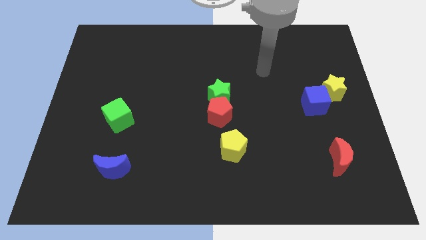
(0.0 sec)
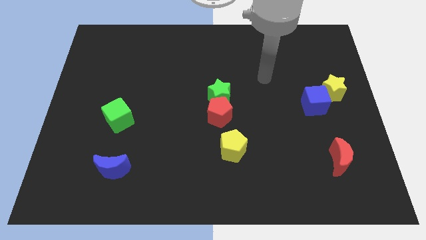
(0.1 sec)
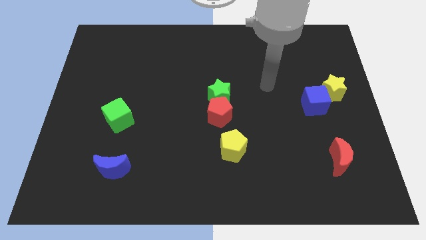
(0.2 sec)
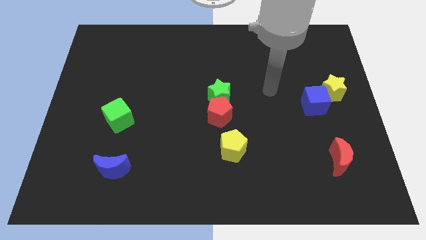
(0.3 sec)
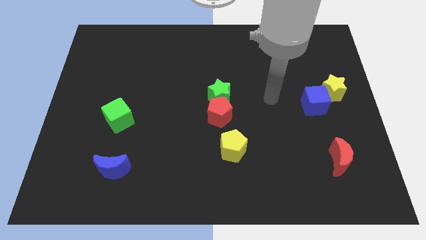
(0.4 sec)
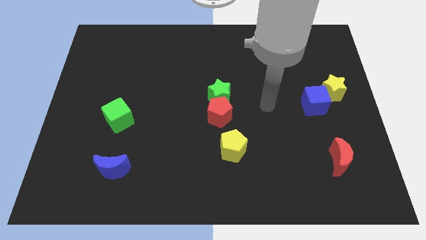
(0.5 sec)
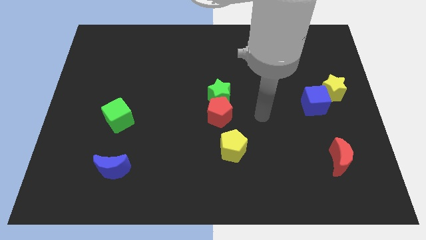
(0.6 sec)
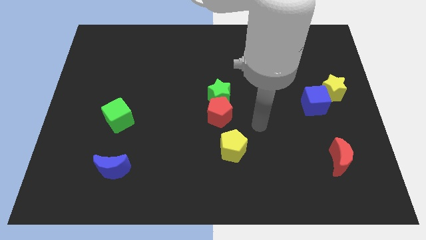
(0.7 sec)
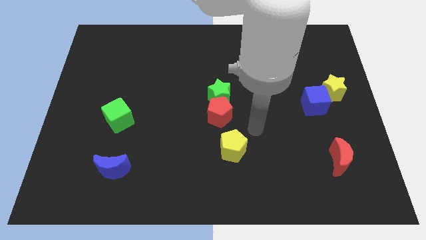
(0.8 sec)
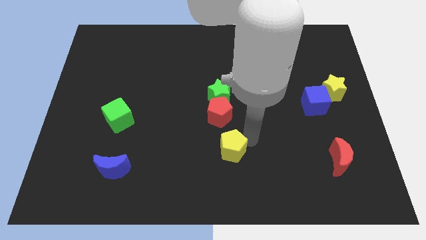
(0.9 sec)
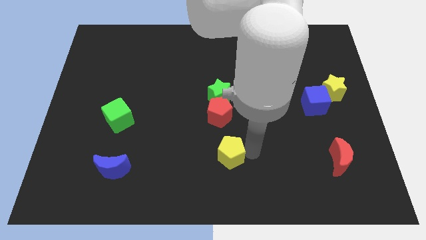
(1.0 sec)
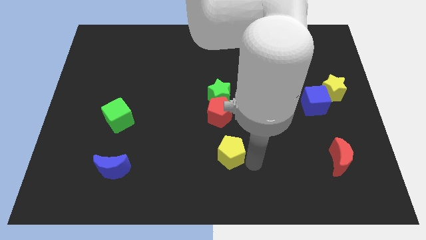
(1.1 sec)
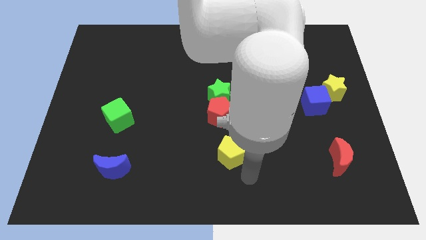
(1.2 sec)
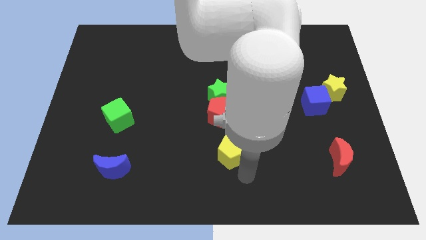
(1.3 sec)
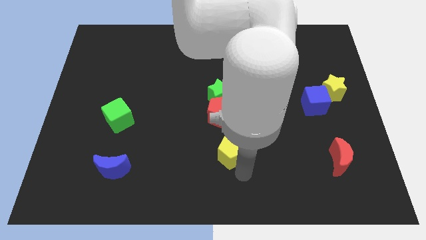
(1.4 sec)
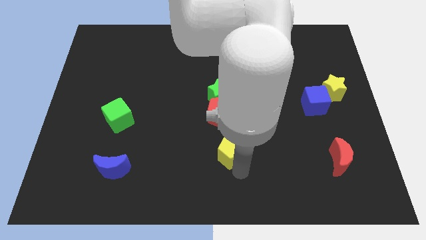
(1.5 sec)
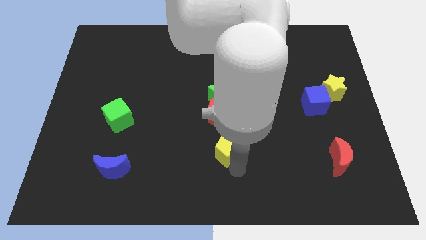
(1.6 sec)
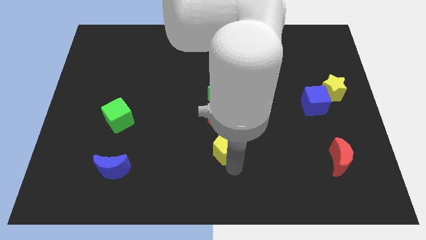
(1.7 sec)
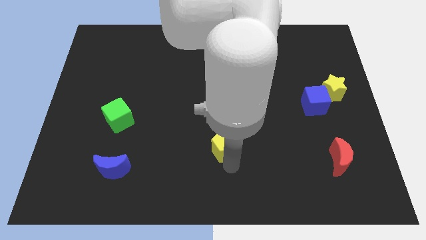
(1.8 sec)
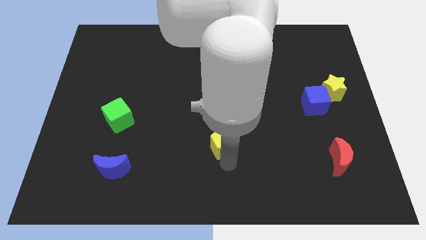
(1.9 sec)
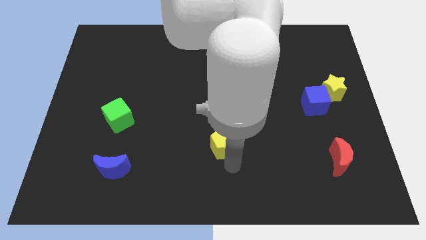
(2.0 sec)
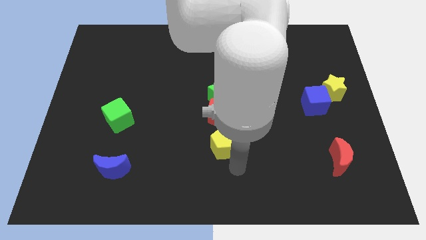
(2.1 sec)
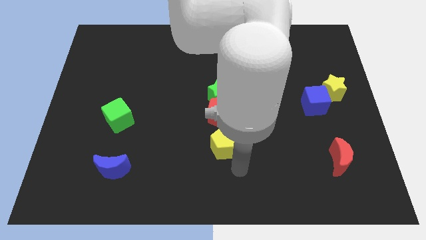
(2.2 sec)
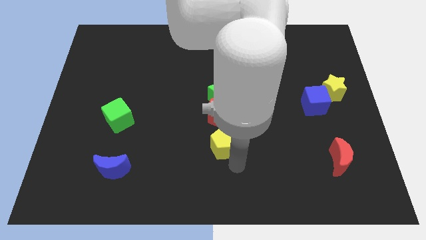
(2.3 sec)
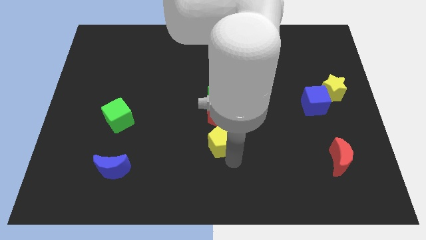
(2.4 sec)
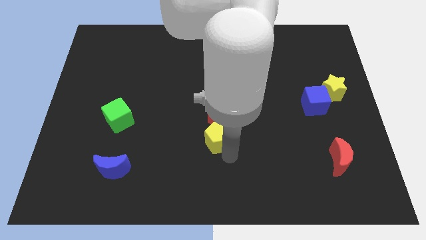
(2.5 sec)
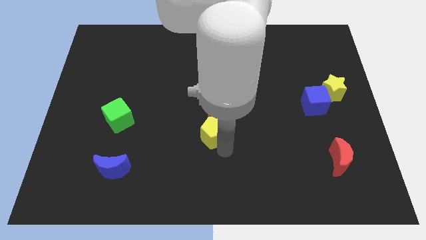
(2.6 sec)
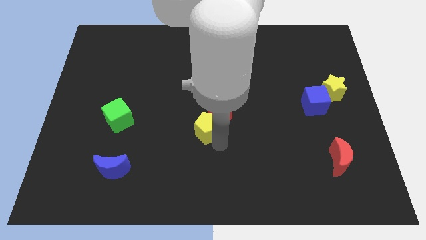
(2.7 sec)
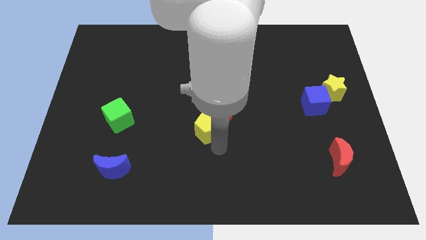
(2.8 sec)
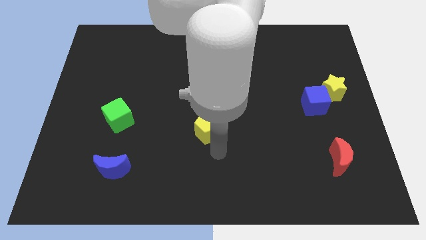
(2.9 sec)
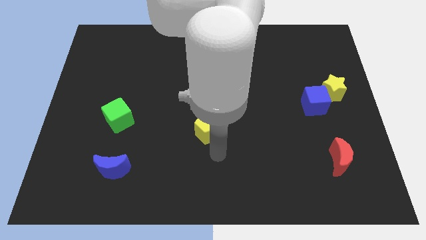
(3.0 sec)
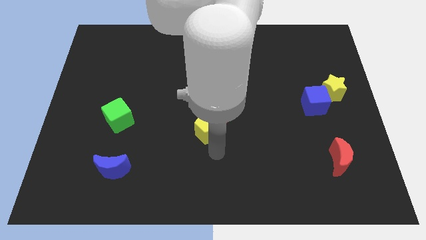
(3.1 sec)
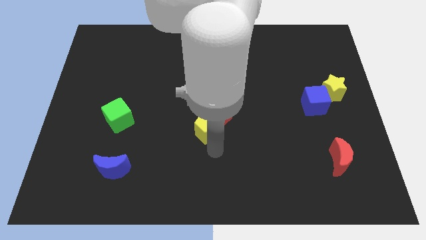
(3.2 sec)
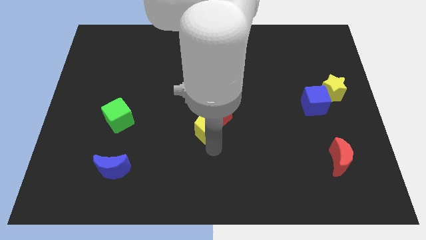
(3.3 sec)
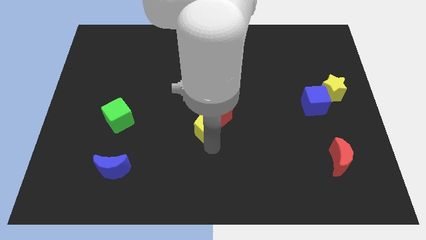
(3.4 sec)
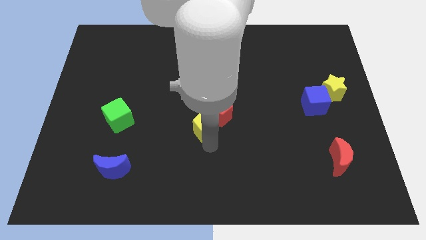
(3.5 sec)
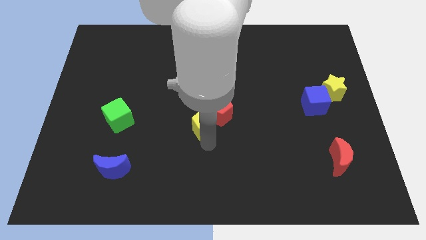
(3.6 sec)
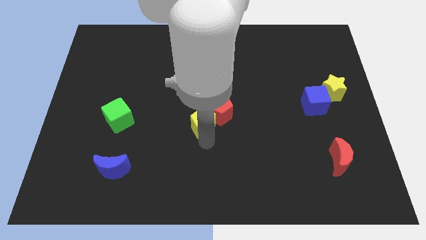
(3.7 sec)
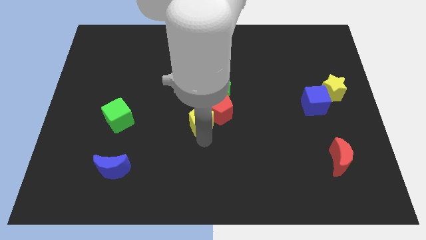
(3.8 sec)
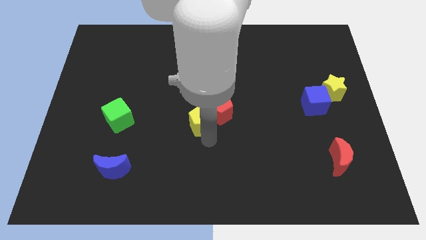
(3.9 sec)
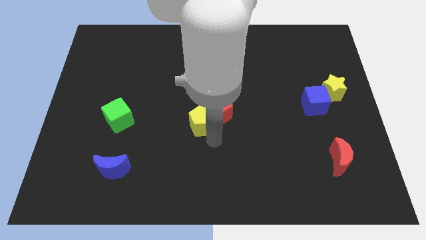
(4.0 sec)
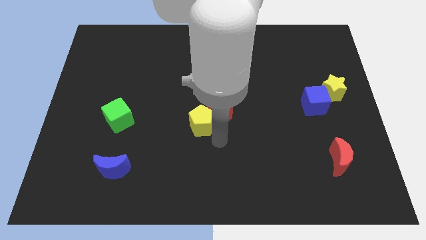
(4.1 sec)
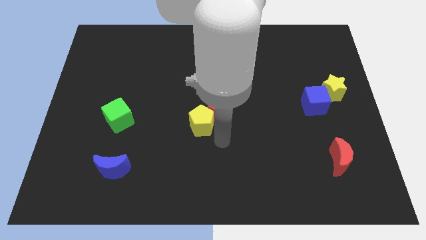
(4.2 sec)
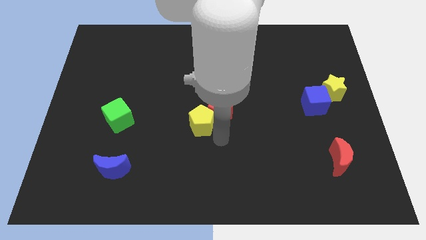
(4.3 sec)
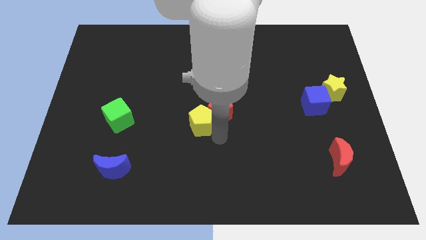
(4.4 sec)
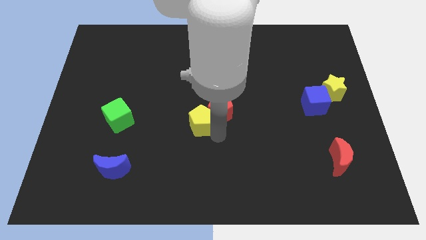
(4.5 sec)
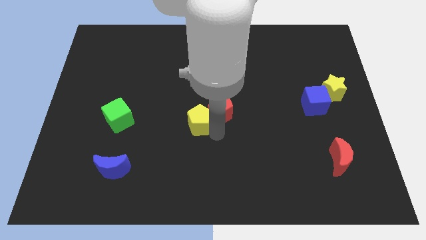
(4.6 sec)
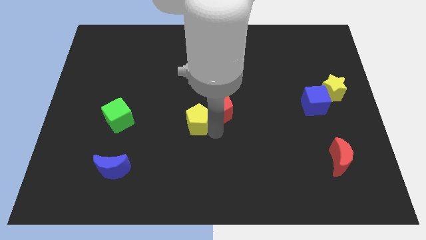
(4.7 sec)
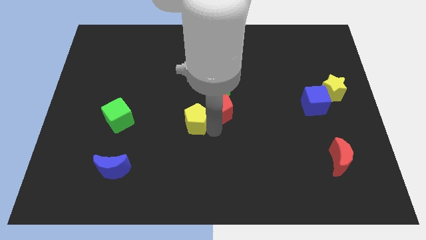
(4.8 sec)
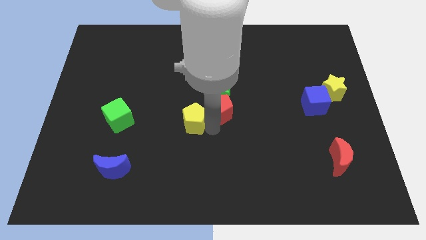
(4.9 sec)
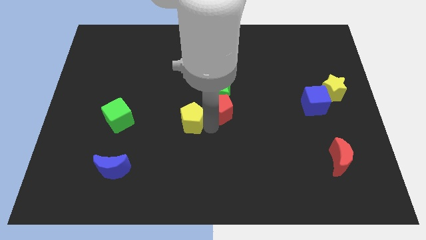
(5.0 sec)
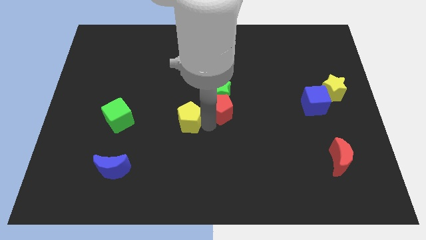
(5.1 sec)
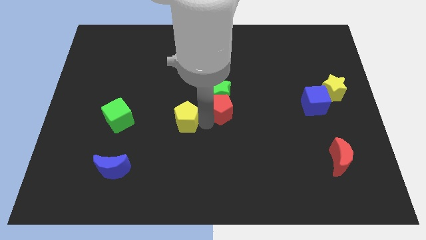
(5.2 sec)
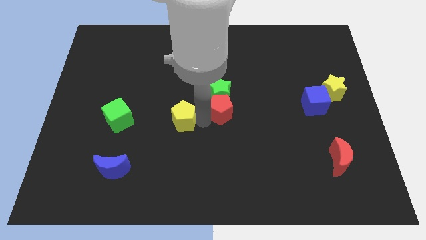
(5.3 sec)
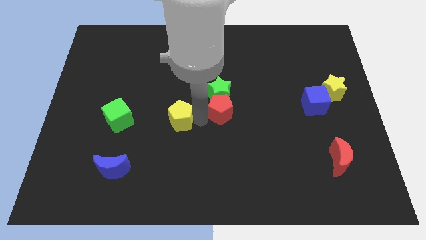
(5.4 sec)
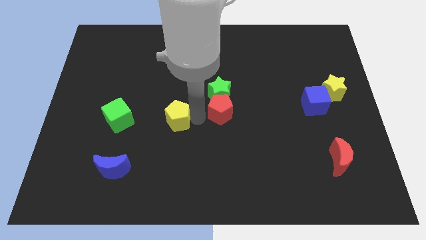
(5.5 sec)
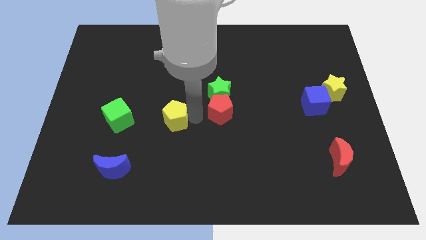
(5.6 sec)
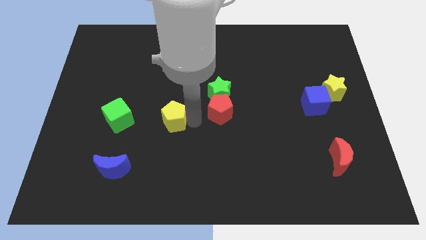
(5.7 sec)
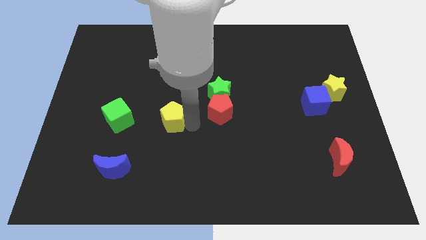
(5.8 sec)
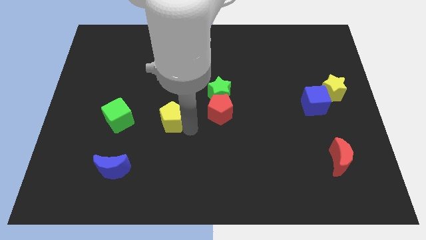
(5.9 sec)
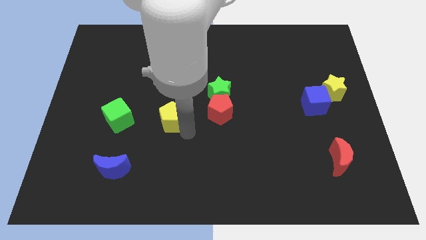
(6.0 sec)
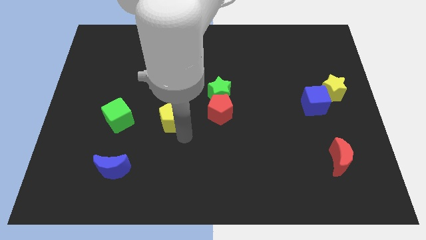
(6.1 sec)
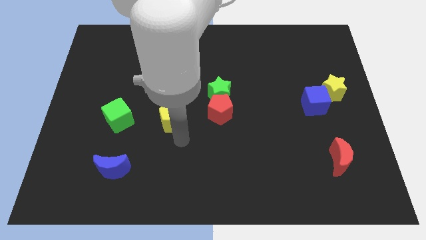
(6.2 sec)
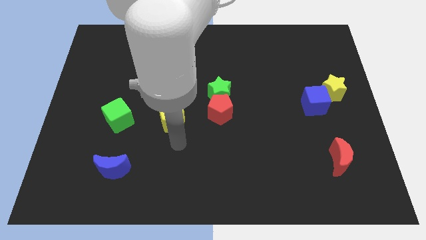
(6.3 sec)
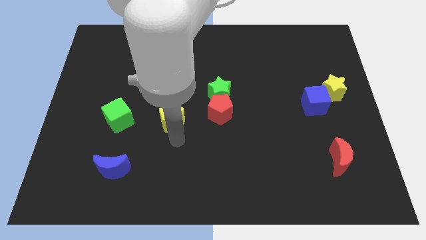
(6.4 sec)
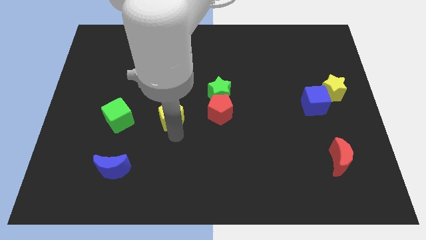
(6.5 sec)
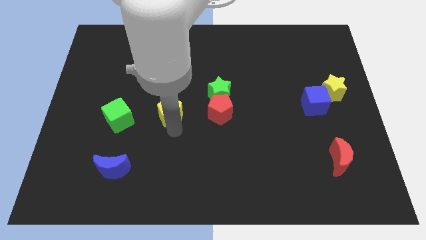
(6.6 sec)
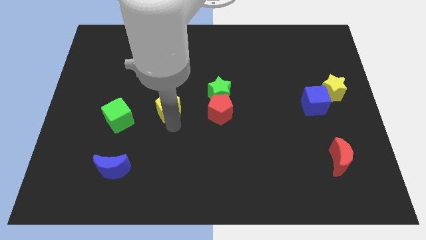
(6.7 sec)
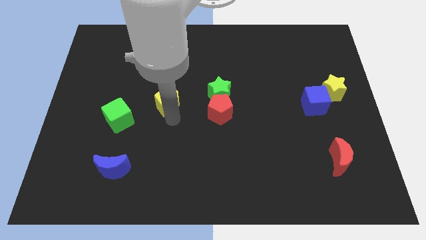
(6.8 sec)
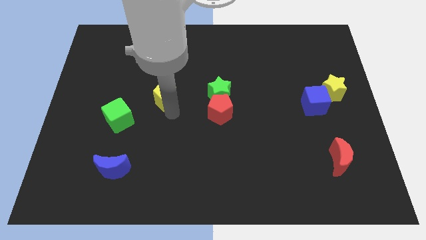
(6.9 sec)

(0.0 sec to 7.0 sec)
slide the yellow pentagon upwards and left diagonally

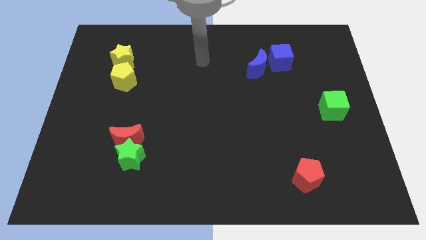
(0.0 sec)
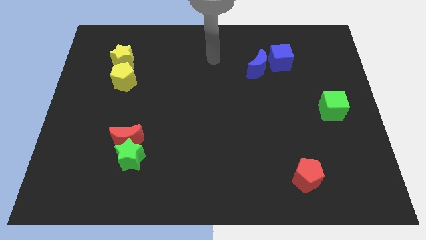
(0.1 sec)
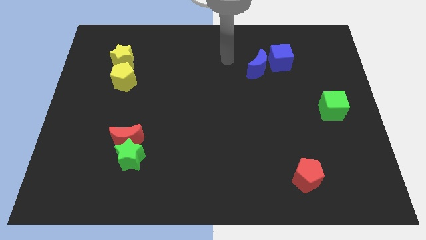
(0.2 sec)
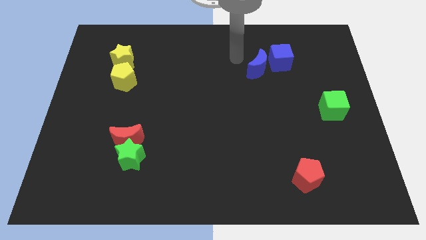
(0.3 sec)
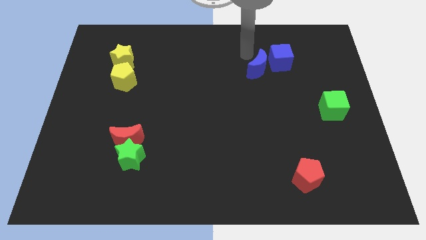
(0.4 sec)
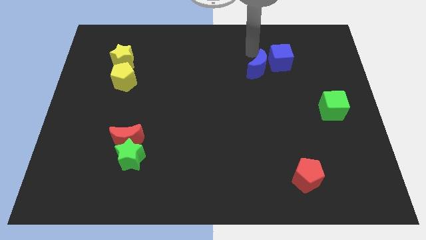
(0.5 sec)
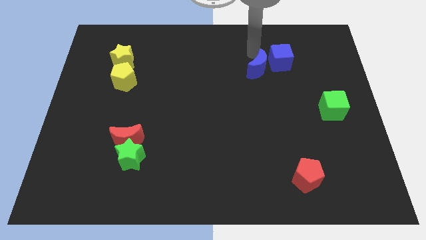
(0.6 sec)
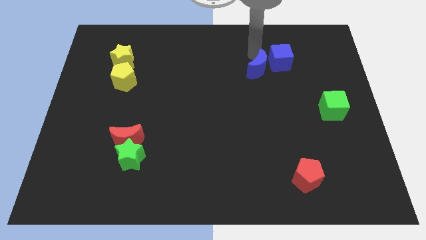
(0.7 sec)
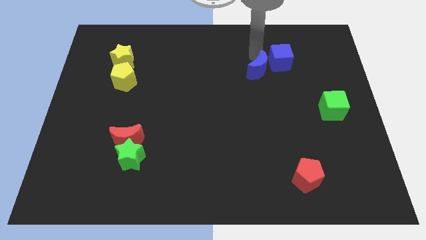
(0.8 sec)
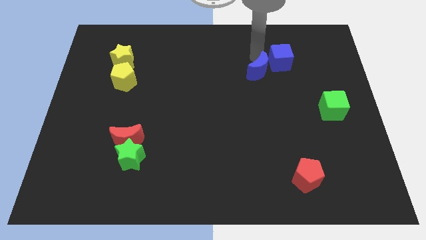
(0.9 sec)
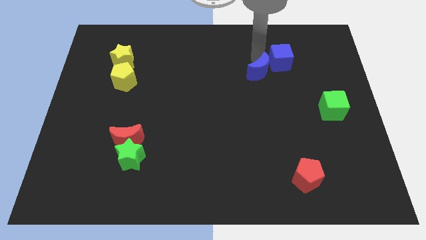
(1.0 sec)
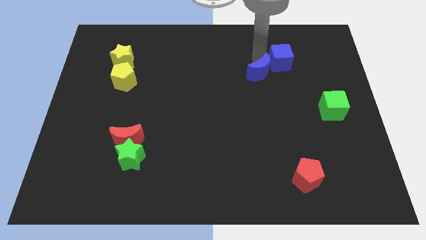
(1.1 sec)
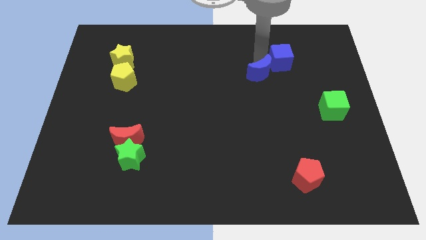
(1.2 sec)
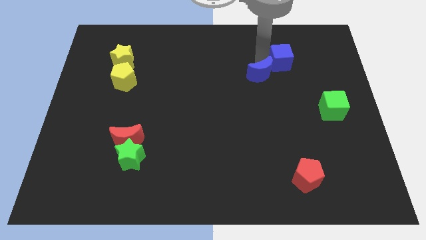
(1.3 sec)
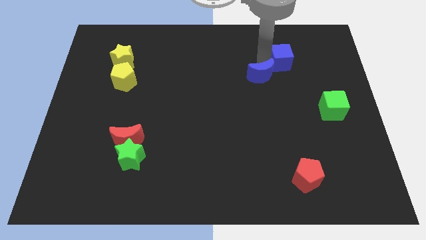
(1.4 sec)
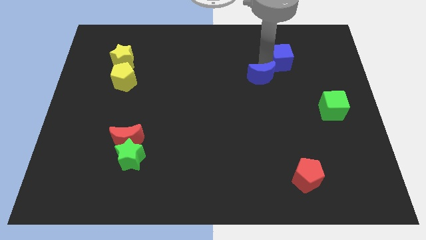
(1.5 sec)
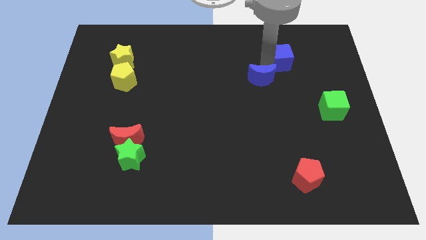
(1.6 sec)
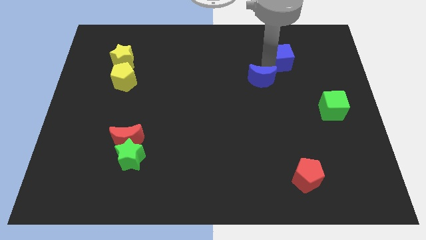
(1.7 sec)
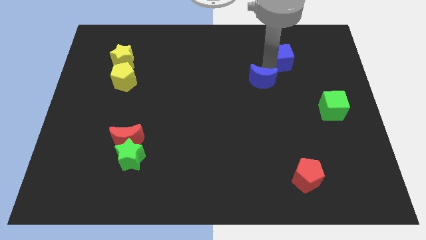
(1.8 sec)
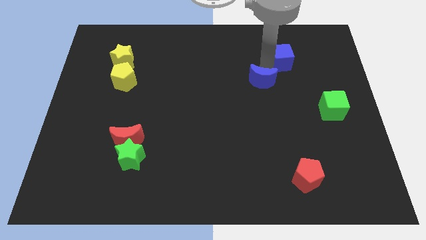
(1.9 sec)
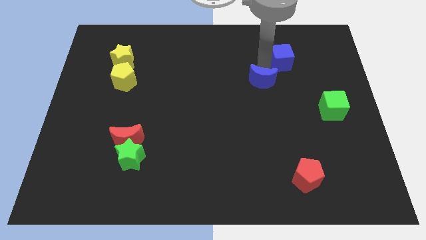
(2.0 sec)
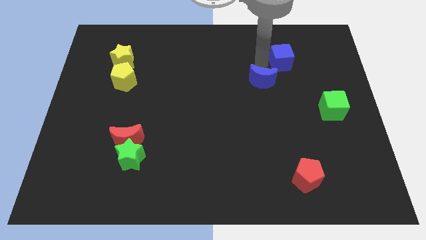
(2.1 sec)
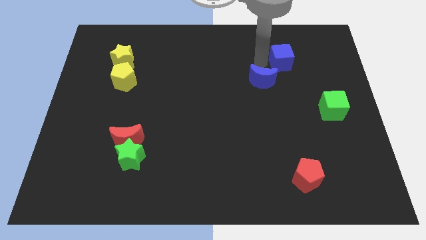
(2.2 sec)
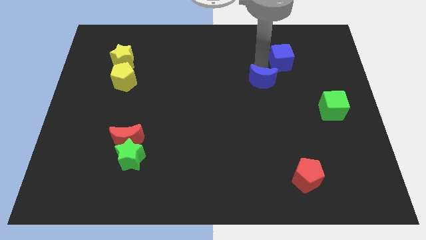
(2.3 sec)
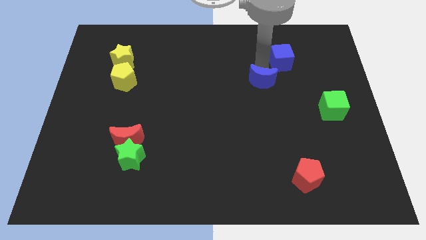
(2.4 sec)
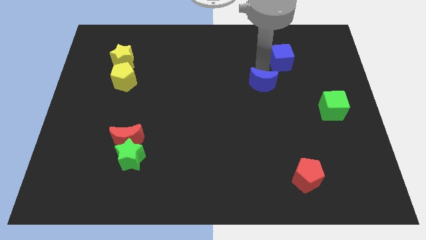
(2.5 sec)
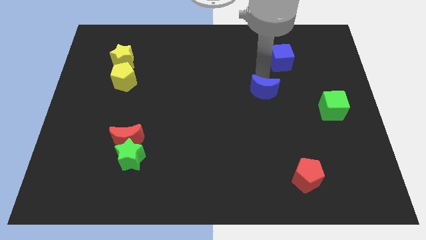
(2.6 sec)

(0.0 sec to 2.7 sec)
move the blue moon down a little bit
